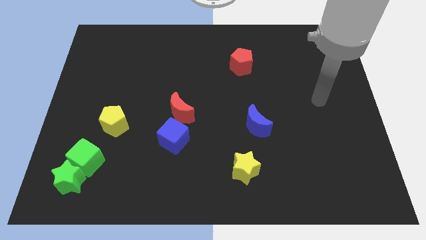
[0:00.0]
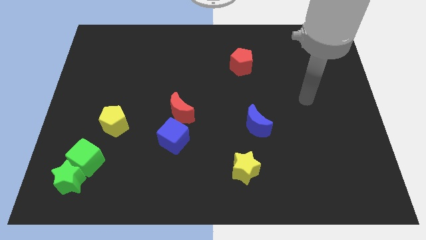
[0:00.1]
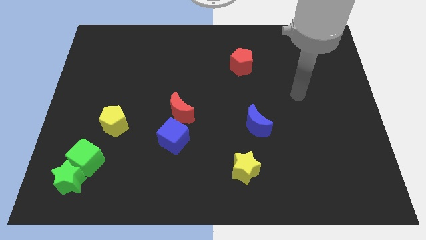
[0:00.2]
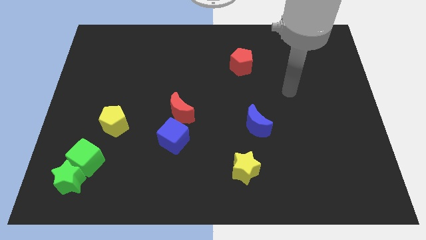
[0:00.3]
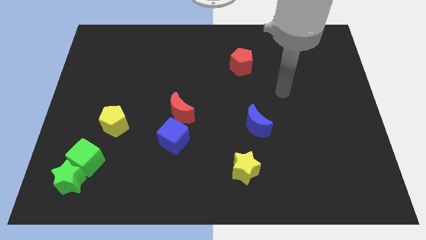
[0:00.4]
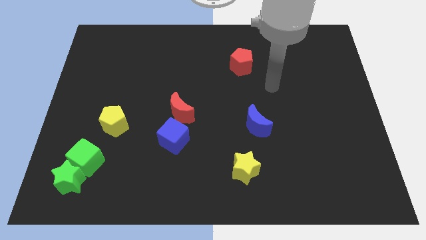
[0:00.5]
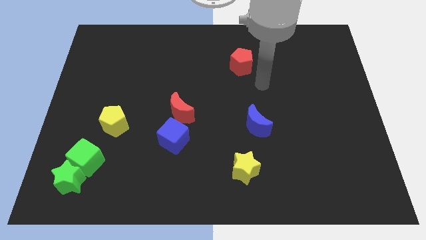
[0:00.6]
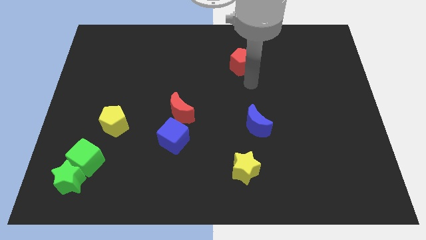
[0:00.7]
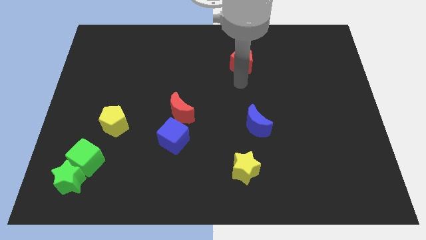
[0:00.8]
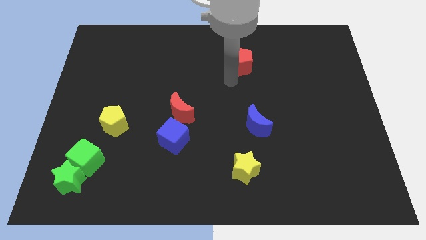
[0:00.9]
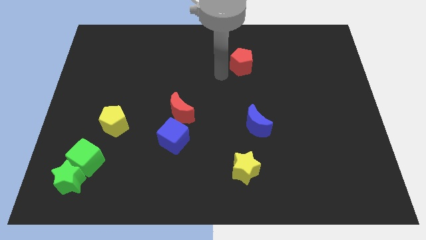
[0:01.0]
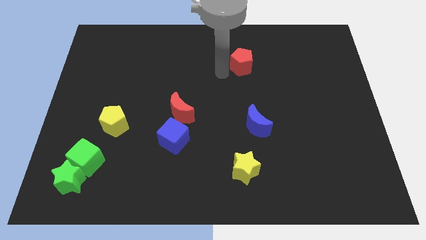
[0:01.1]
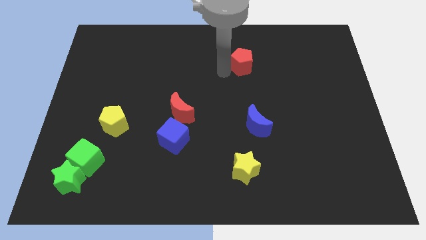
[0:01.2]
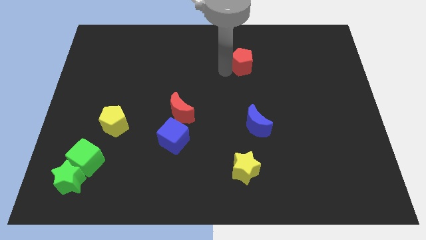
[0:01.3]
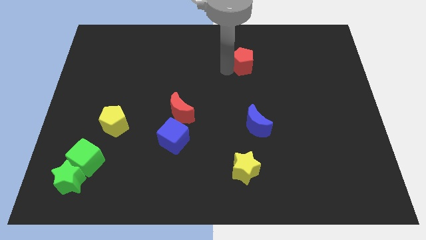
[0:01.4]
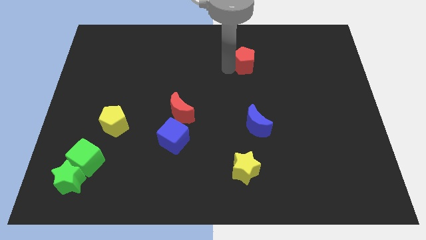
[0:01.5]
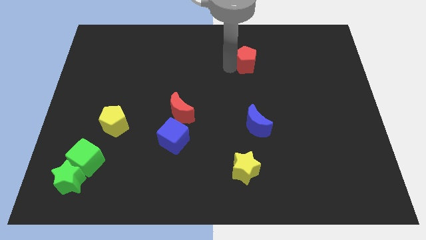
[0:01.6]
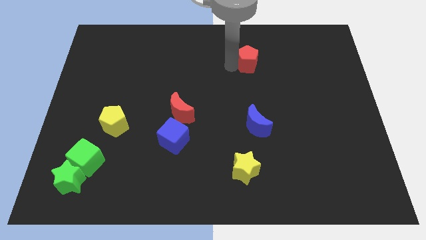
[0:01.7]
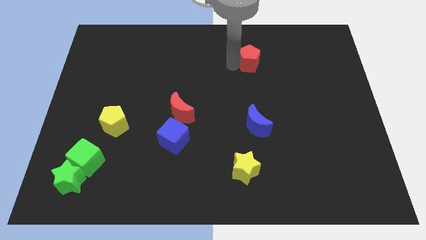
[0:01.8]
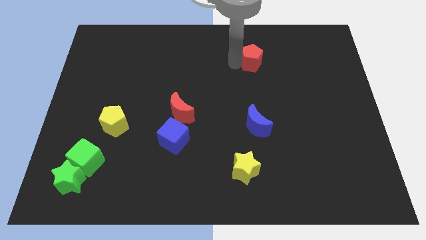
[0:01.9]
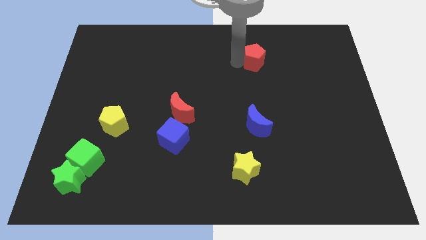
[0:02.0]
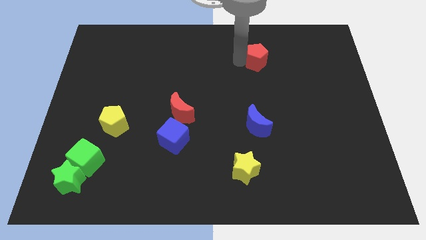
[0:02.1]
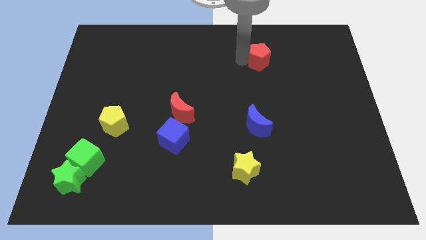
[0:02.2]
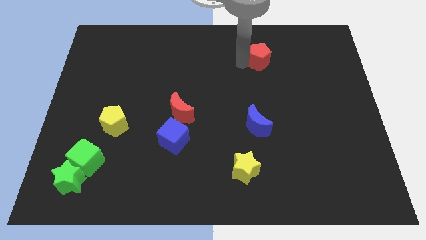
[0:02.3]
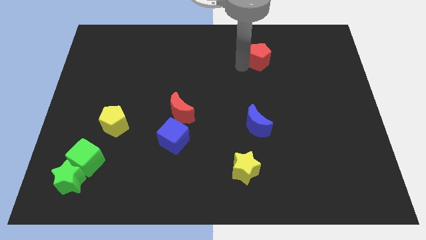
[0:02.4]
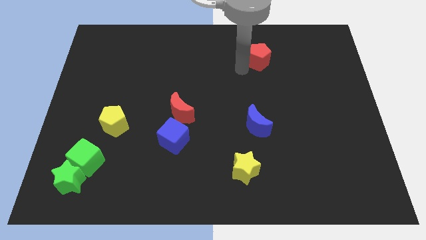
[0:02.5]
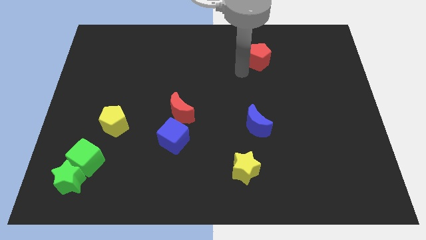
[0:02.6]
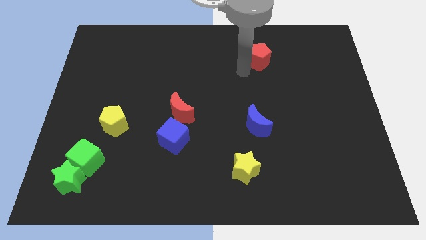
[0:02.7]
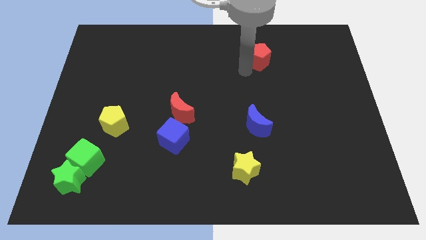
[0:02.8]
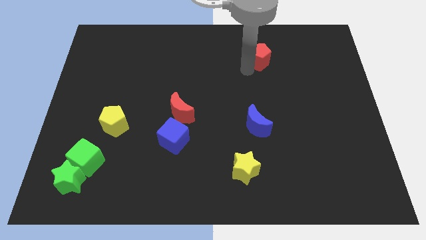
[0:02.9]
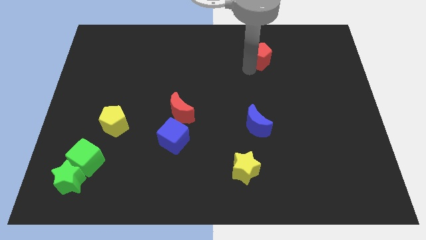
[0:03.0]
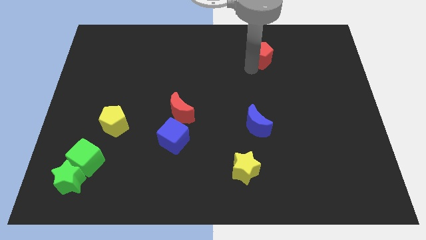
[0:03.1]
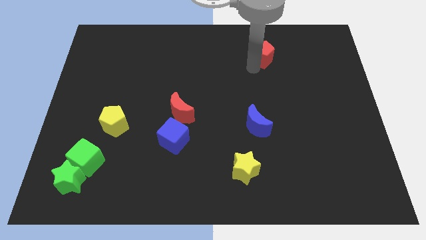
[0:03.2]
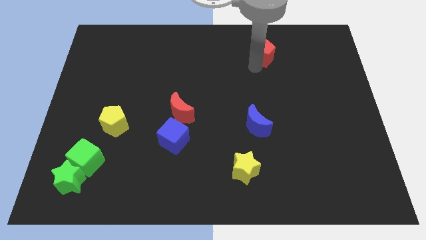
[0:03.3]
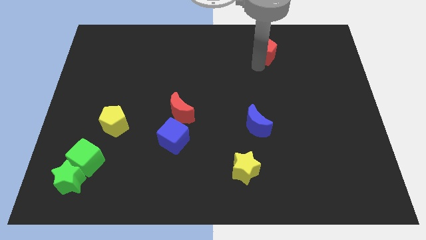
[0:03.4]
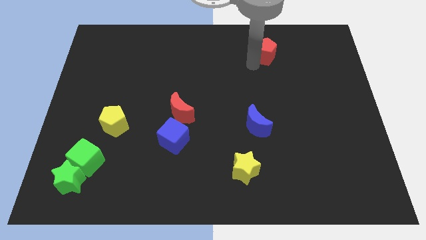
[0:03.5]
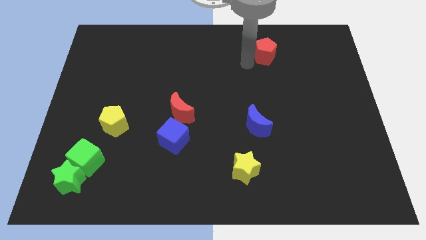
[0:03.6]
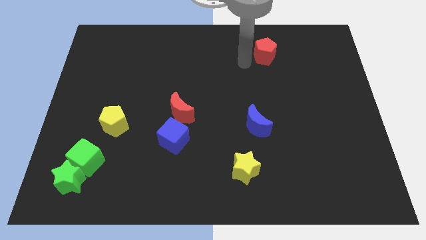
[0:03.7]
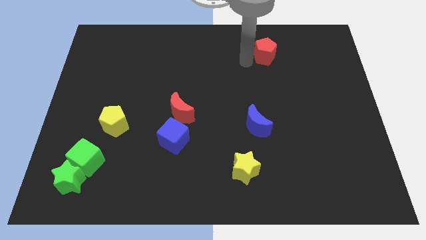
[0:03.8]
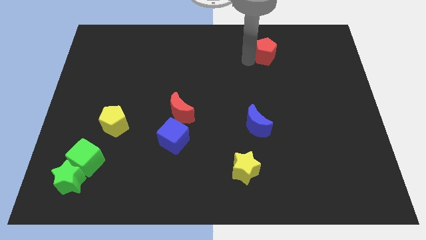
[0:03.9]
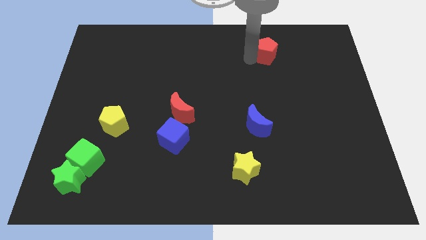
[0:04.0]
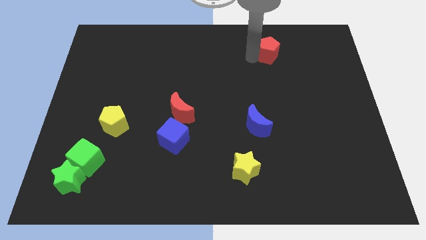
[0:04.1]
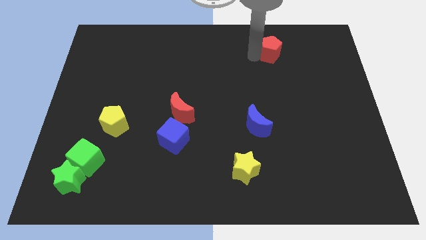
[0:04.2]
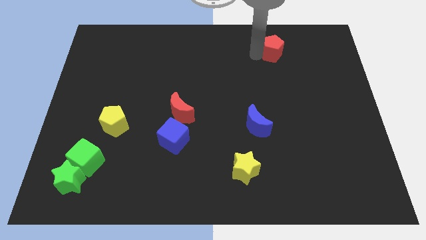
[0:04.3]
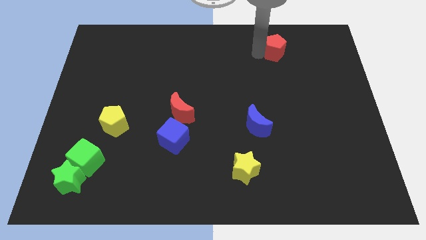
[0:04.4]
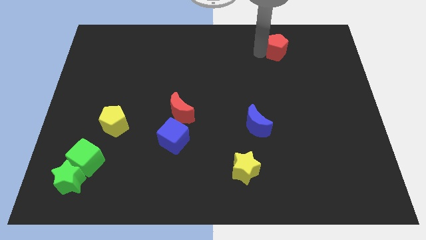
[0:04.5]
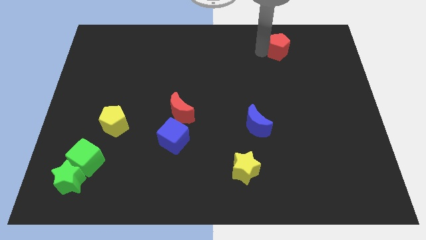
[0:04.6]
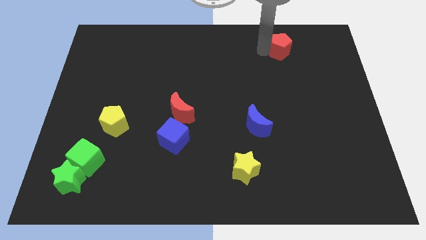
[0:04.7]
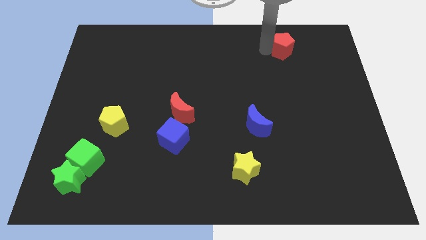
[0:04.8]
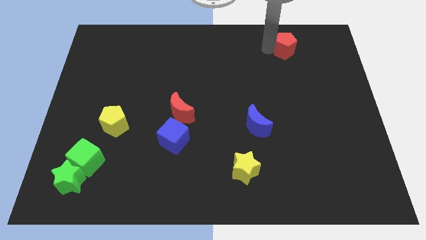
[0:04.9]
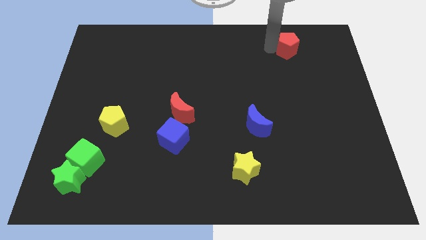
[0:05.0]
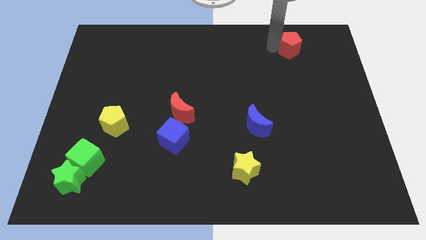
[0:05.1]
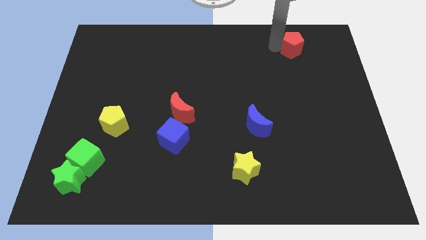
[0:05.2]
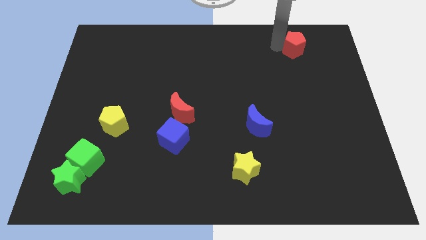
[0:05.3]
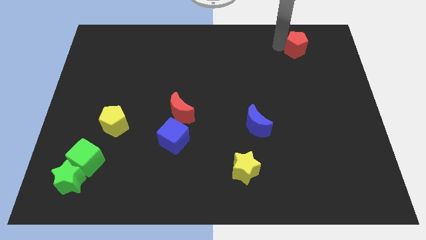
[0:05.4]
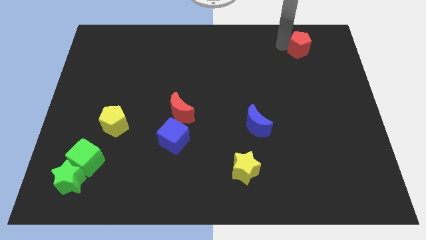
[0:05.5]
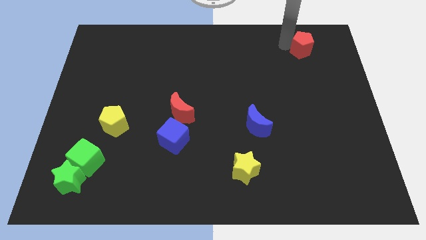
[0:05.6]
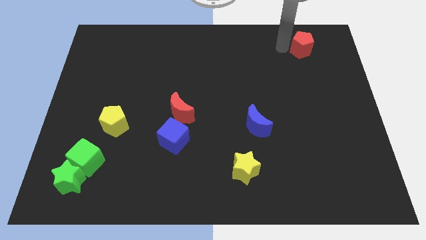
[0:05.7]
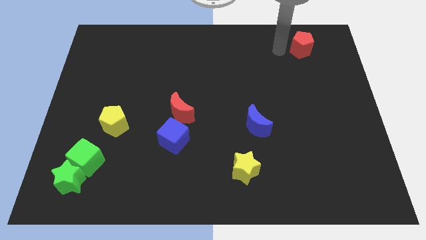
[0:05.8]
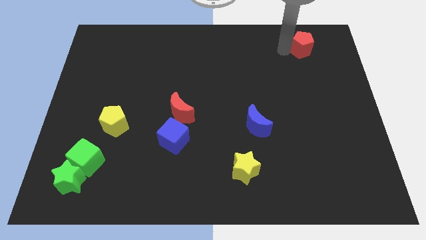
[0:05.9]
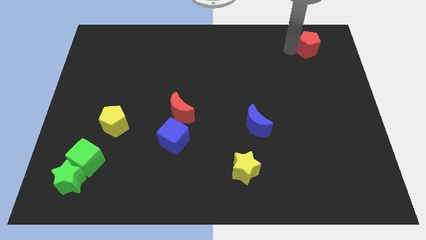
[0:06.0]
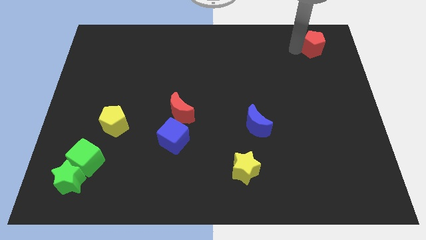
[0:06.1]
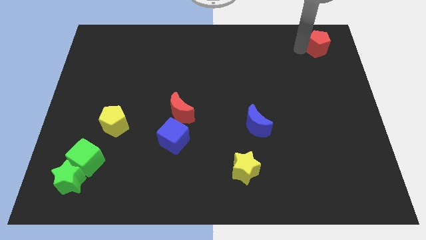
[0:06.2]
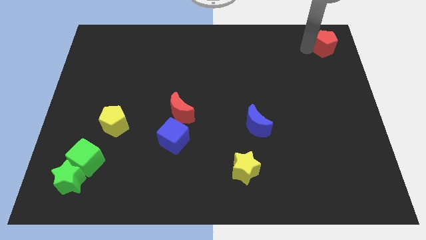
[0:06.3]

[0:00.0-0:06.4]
move the red pentagon to the upper right corner

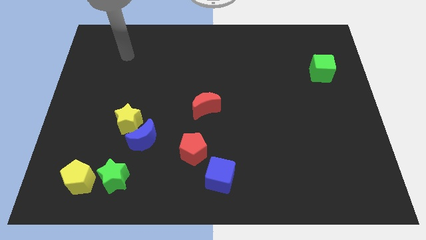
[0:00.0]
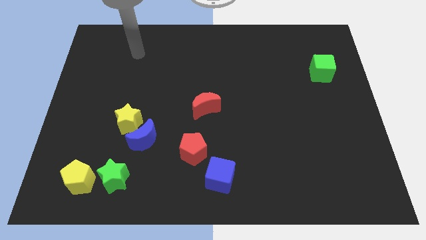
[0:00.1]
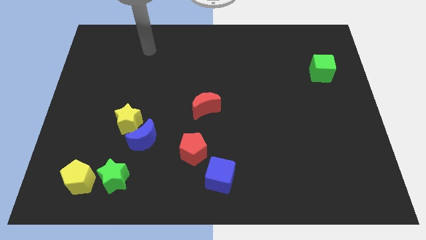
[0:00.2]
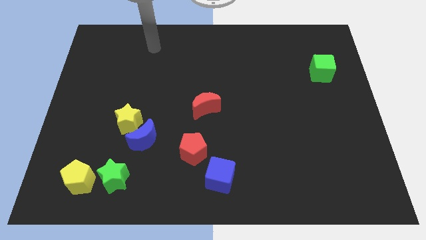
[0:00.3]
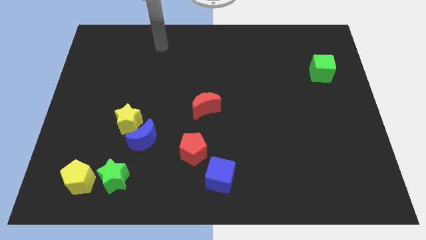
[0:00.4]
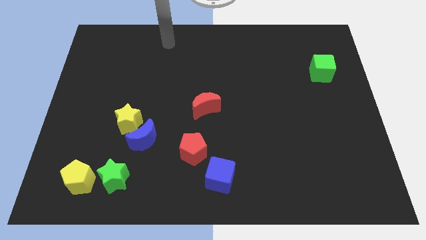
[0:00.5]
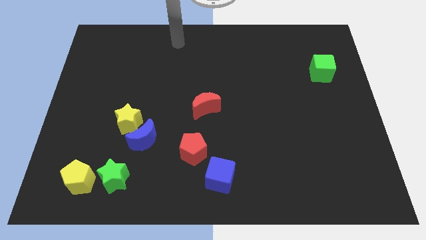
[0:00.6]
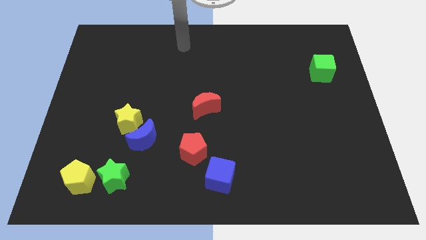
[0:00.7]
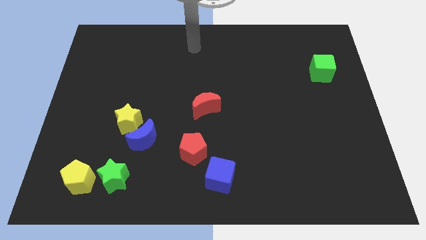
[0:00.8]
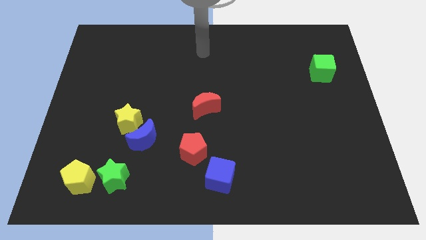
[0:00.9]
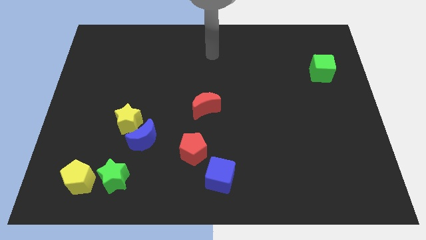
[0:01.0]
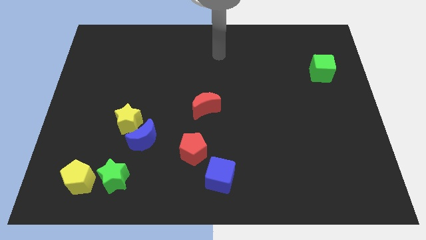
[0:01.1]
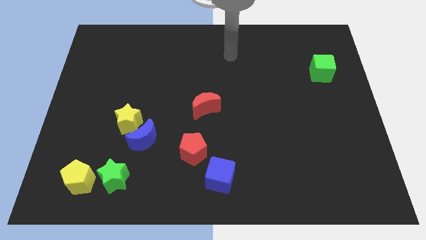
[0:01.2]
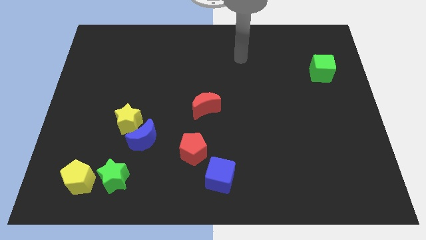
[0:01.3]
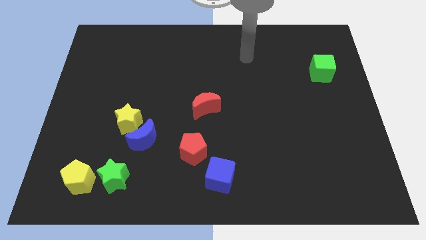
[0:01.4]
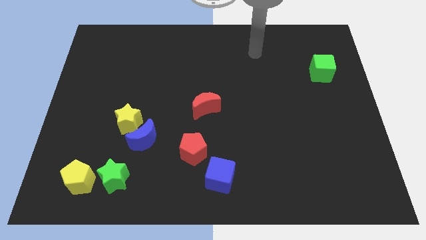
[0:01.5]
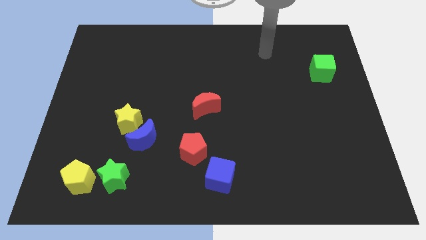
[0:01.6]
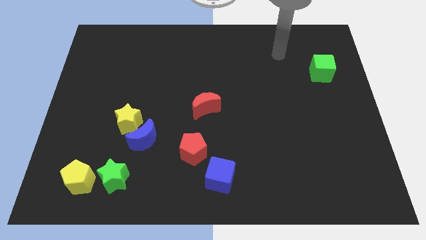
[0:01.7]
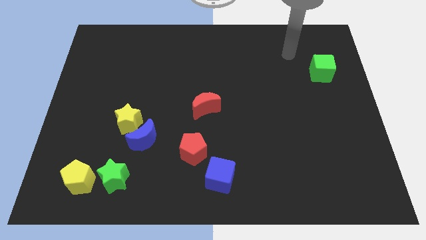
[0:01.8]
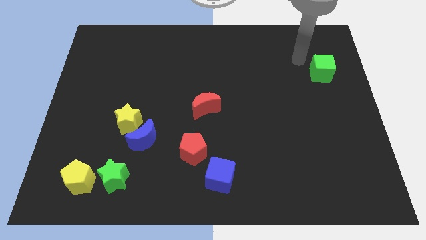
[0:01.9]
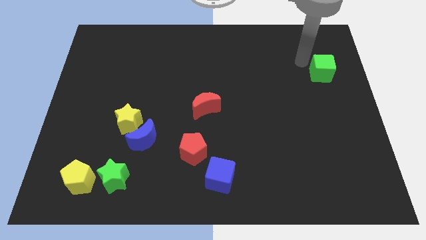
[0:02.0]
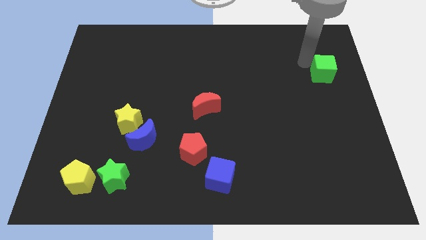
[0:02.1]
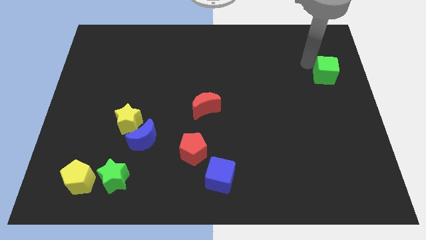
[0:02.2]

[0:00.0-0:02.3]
push the green cube to the right side of the board
